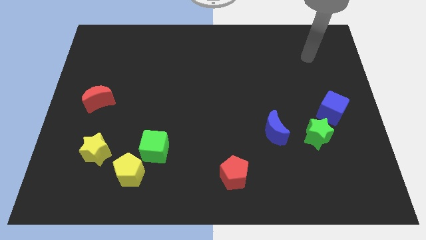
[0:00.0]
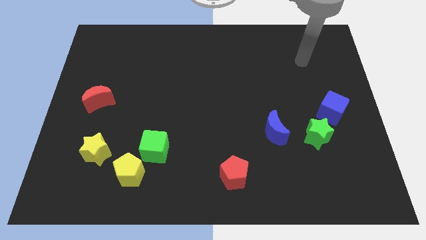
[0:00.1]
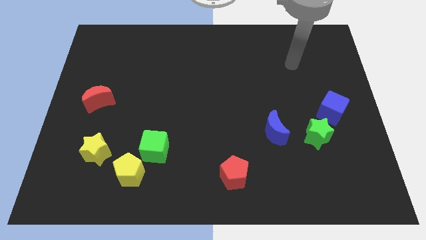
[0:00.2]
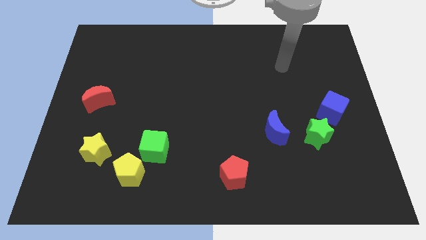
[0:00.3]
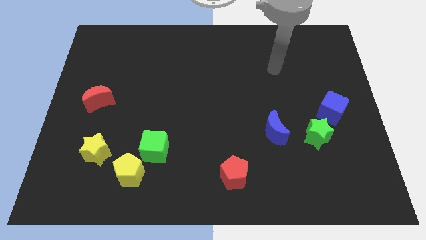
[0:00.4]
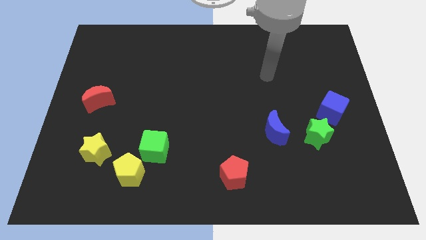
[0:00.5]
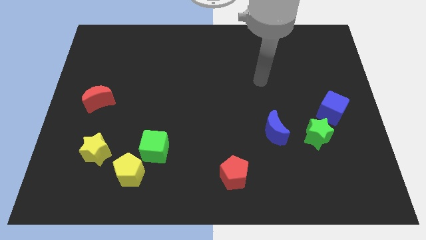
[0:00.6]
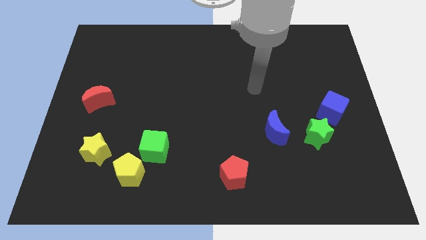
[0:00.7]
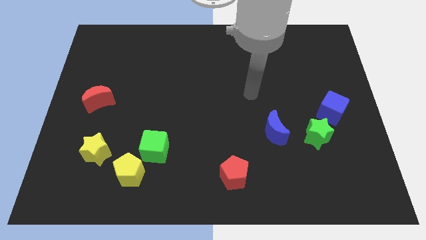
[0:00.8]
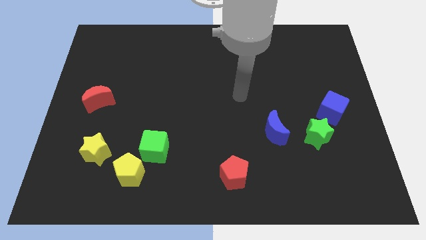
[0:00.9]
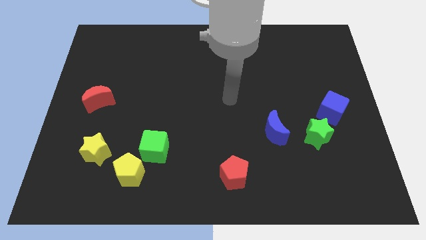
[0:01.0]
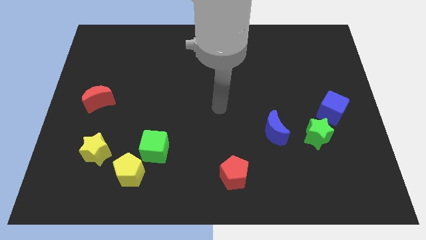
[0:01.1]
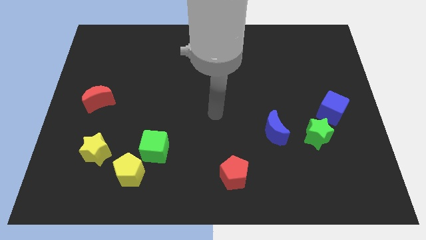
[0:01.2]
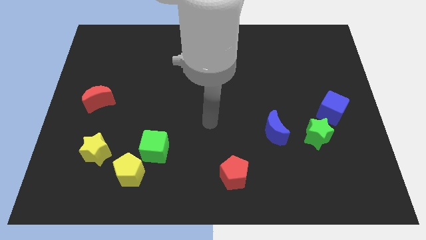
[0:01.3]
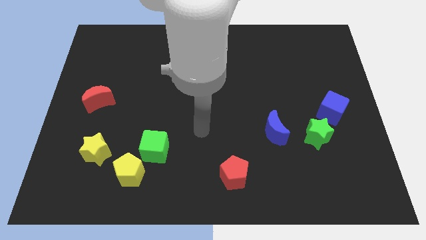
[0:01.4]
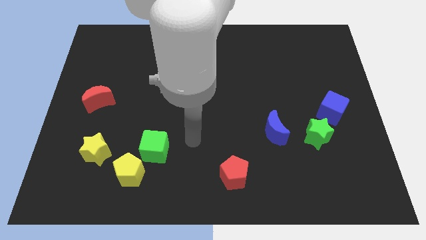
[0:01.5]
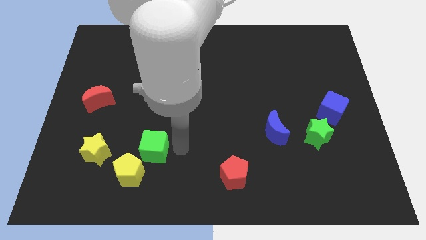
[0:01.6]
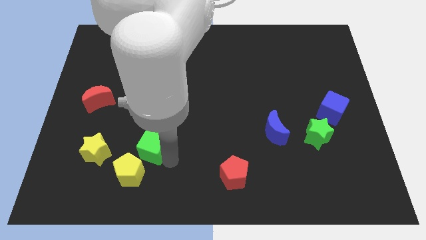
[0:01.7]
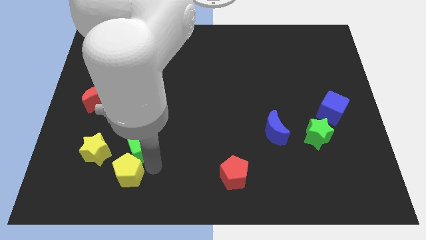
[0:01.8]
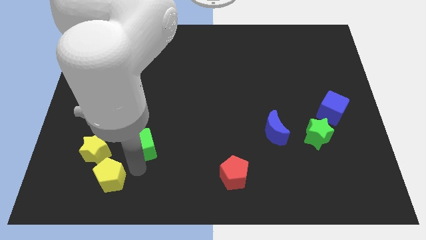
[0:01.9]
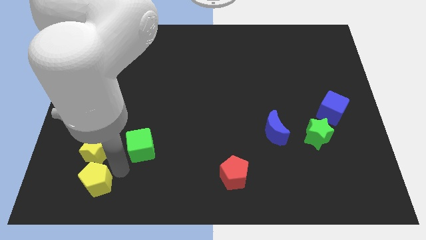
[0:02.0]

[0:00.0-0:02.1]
pull the green cube apart from the yellow pentagon

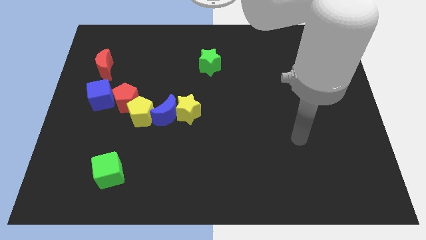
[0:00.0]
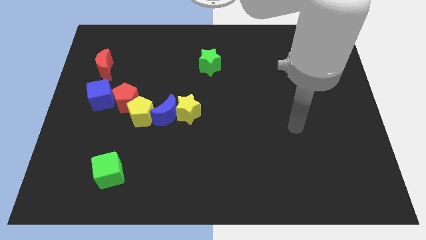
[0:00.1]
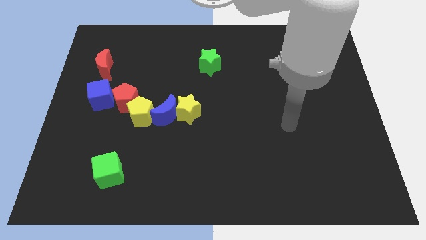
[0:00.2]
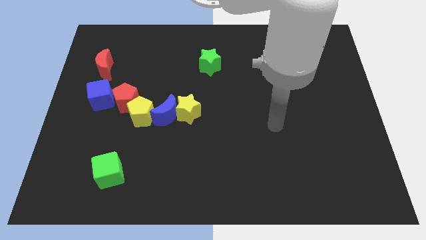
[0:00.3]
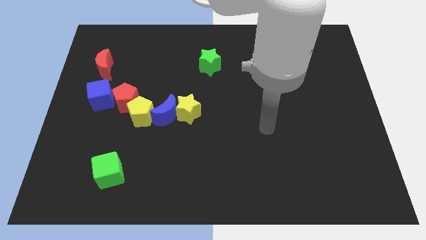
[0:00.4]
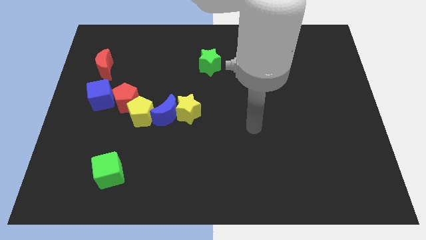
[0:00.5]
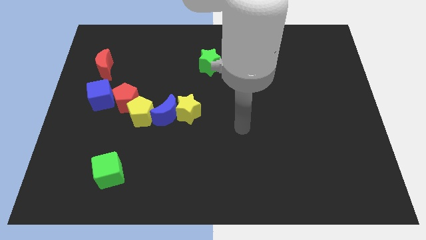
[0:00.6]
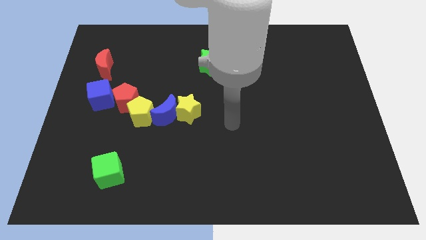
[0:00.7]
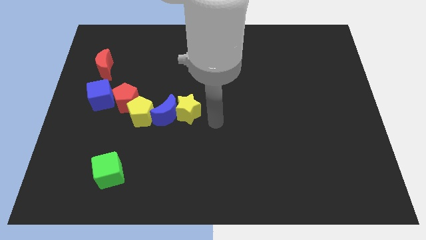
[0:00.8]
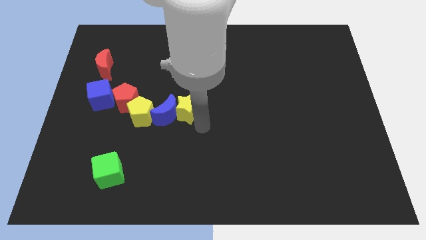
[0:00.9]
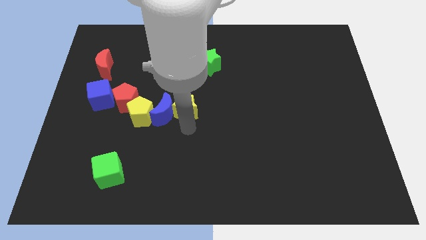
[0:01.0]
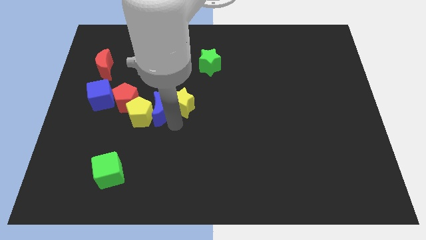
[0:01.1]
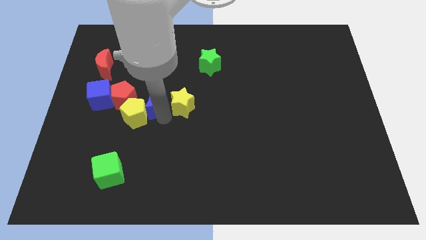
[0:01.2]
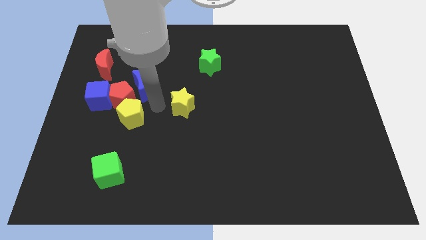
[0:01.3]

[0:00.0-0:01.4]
move the yellow star away from the blue moon

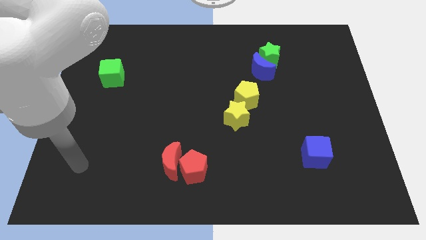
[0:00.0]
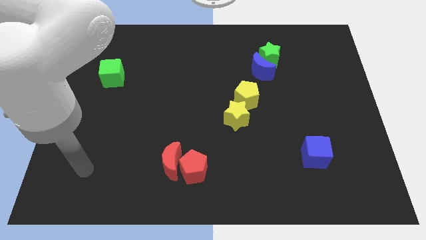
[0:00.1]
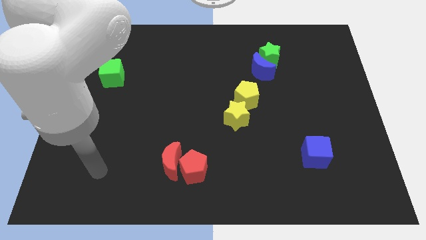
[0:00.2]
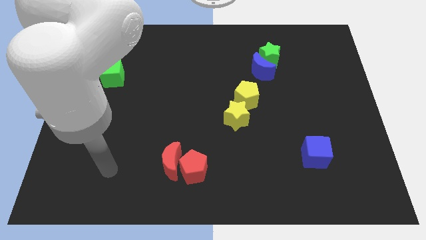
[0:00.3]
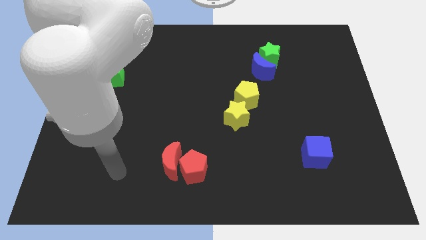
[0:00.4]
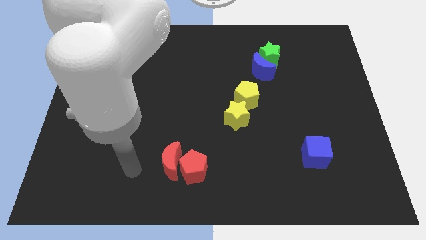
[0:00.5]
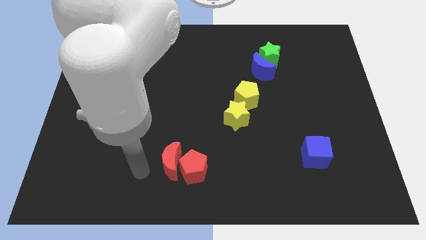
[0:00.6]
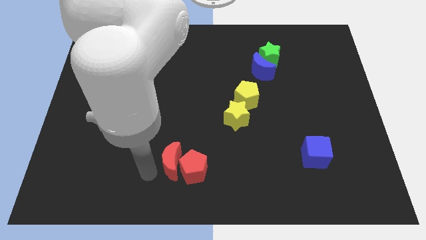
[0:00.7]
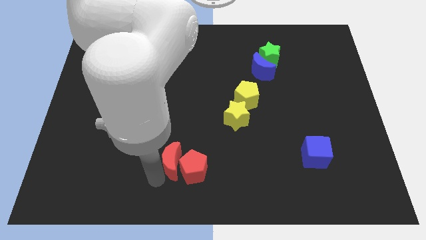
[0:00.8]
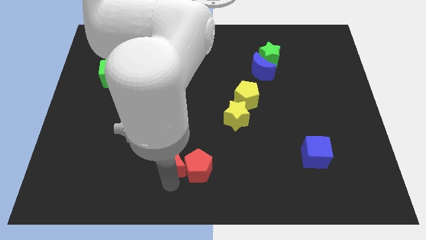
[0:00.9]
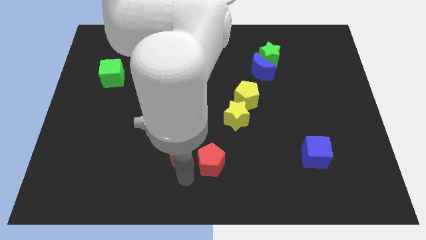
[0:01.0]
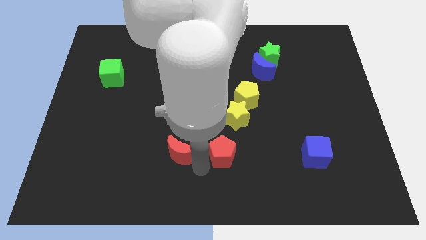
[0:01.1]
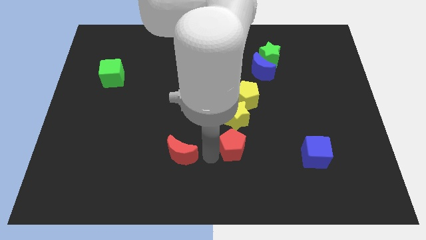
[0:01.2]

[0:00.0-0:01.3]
separate the red moon from the red pentagon

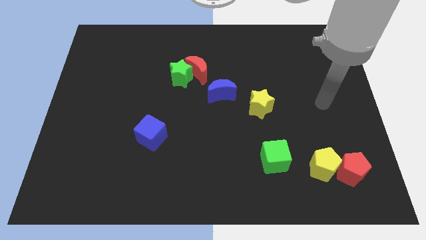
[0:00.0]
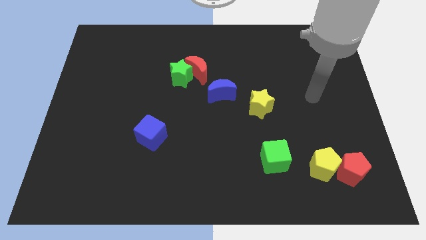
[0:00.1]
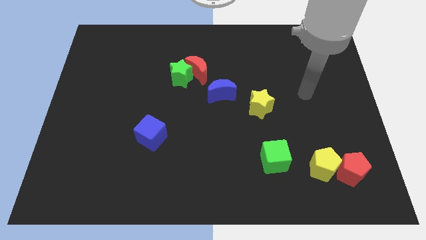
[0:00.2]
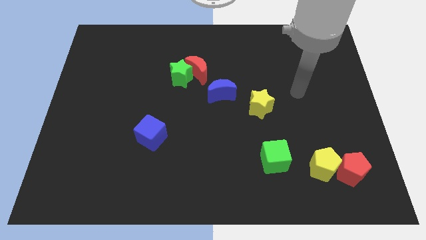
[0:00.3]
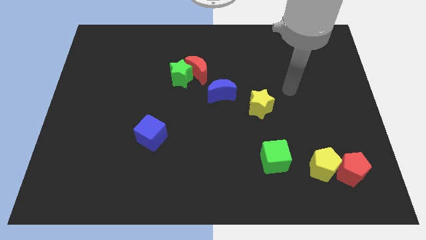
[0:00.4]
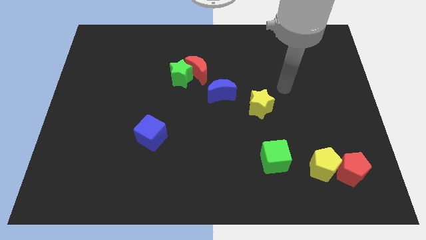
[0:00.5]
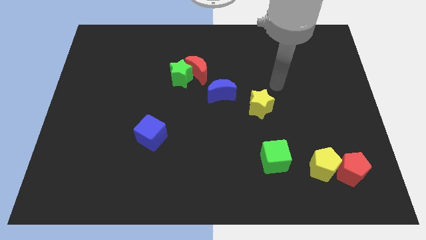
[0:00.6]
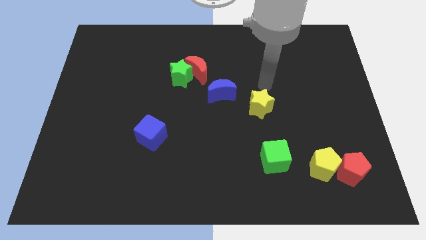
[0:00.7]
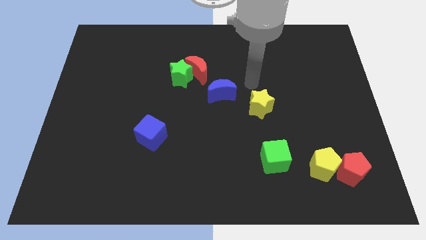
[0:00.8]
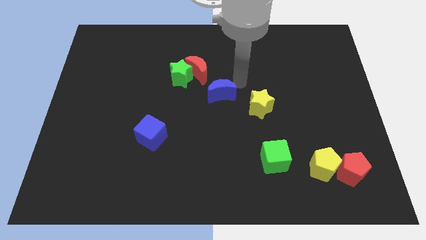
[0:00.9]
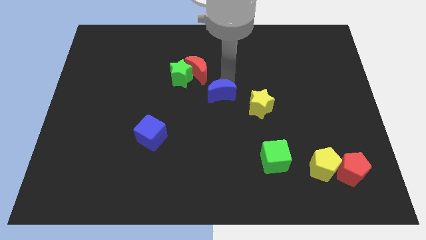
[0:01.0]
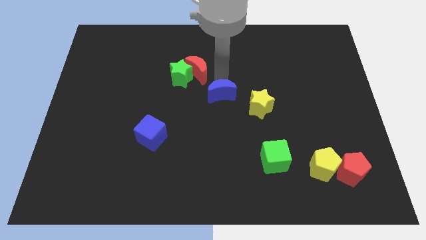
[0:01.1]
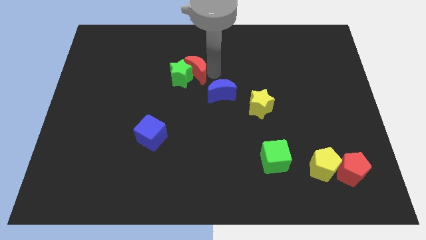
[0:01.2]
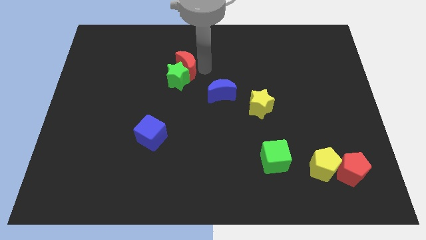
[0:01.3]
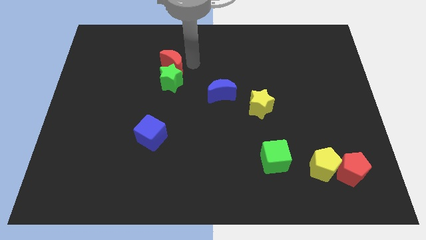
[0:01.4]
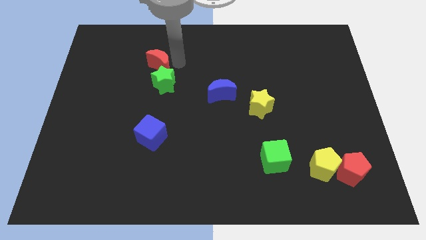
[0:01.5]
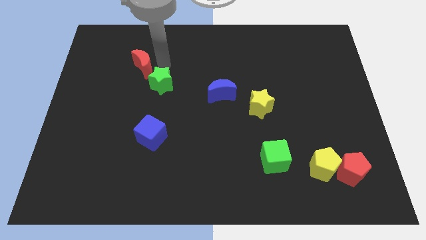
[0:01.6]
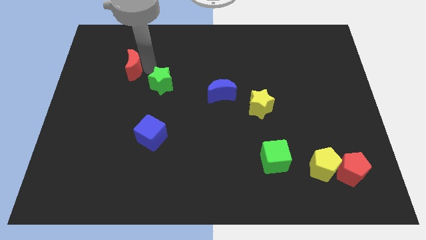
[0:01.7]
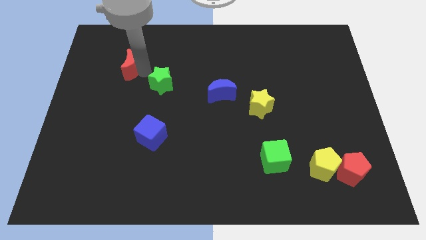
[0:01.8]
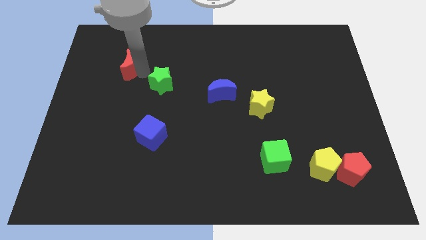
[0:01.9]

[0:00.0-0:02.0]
pull the green star apart from the red moon

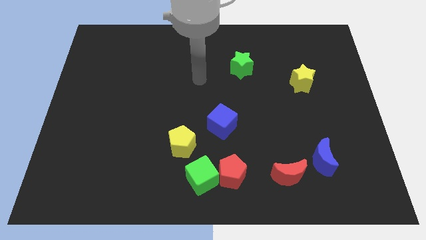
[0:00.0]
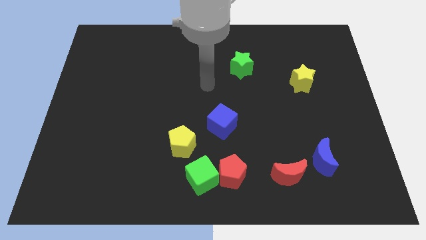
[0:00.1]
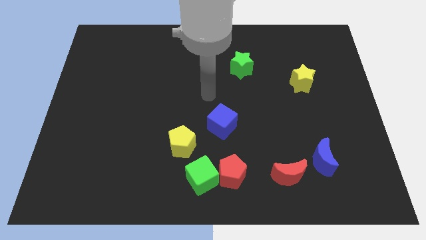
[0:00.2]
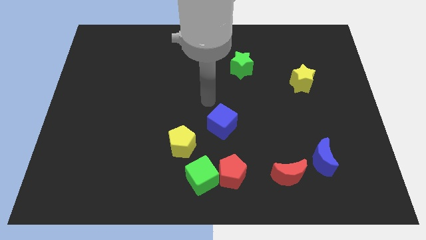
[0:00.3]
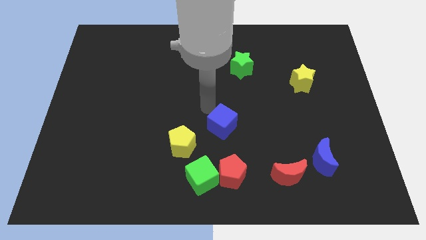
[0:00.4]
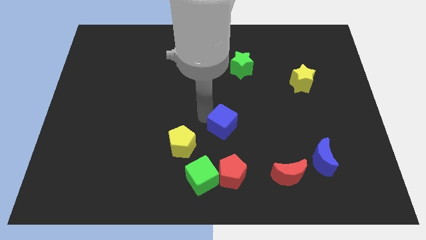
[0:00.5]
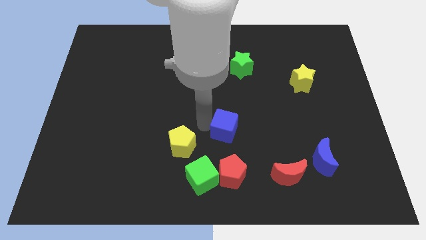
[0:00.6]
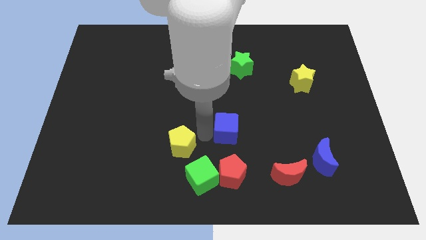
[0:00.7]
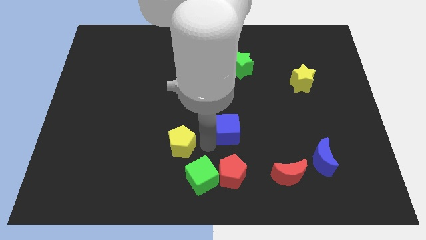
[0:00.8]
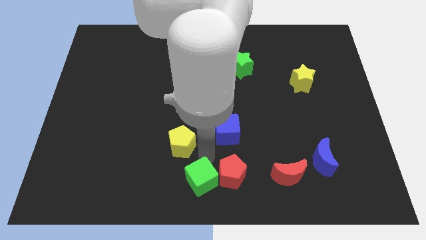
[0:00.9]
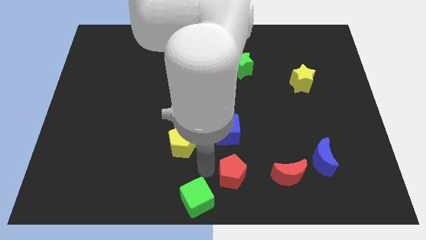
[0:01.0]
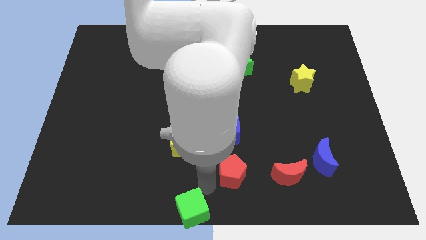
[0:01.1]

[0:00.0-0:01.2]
move the red pentagon away from the green cube

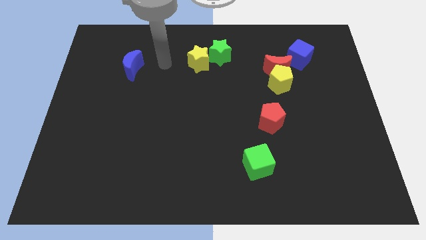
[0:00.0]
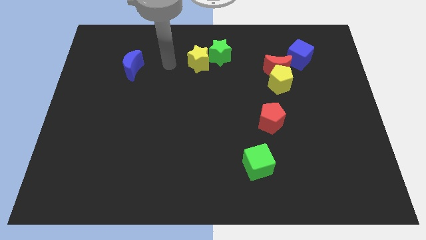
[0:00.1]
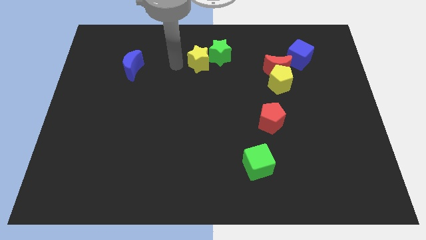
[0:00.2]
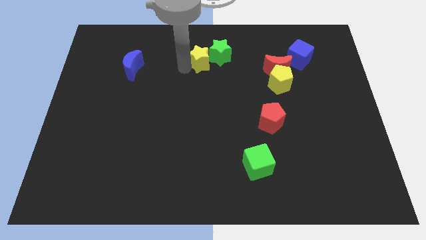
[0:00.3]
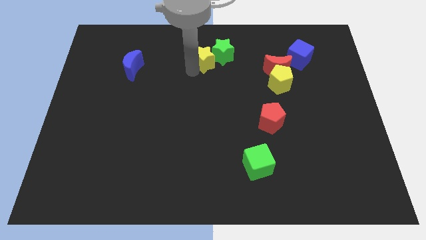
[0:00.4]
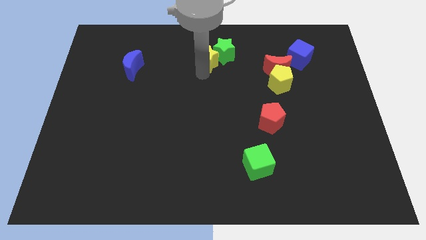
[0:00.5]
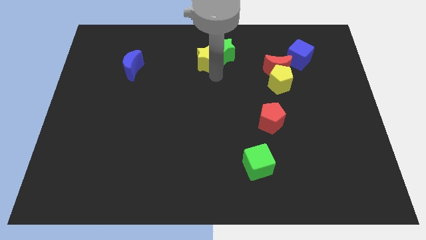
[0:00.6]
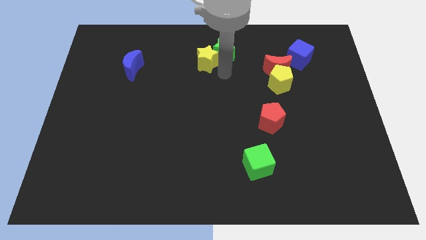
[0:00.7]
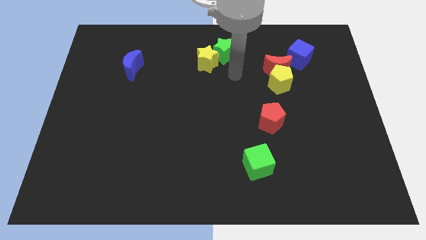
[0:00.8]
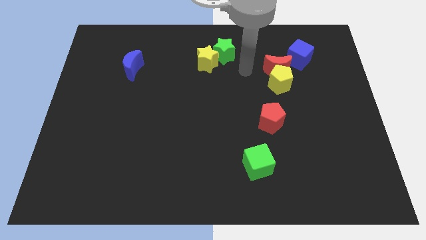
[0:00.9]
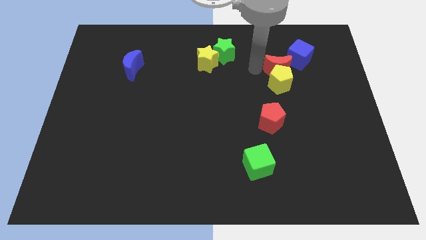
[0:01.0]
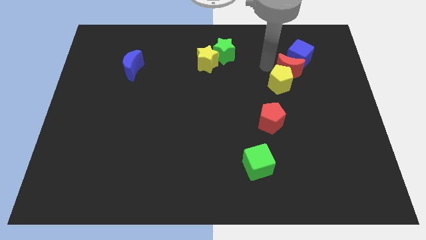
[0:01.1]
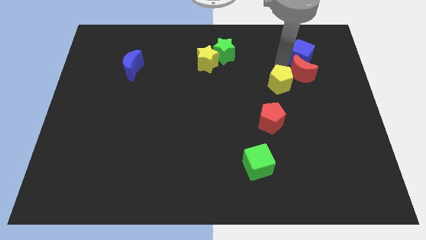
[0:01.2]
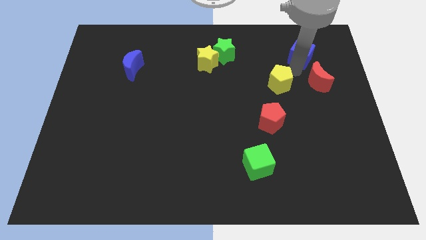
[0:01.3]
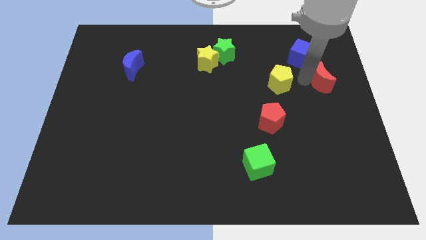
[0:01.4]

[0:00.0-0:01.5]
pull the yellow pentagon apart from the red moon
